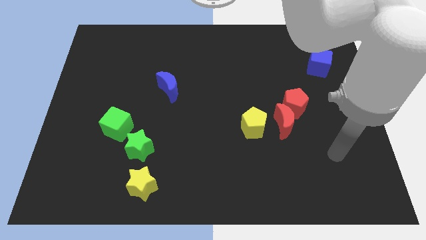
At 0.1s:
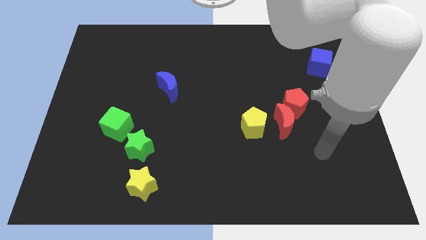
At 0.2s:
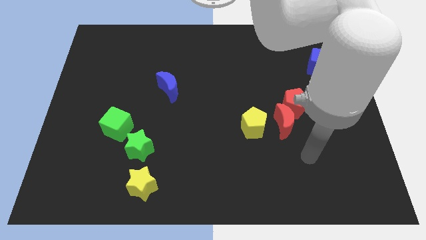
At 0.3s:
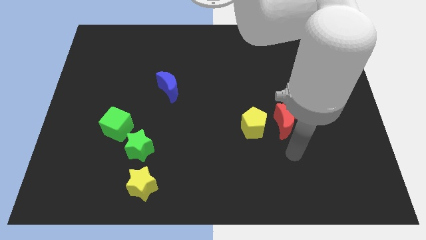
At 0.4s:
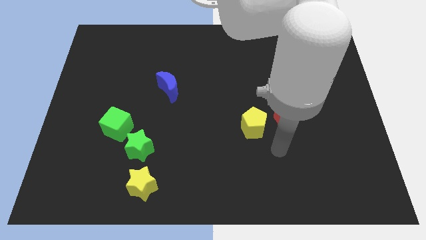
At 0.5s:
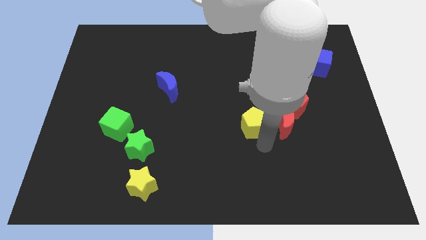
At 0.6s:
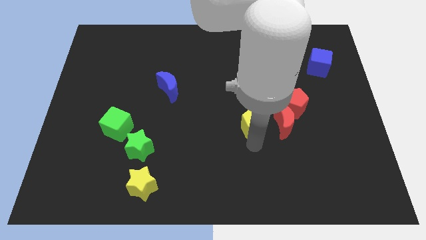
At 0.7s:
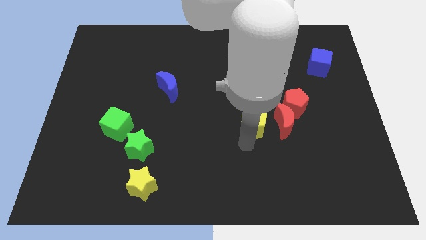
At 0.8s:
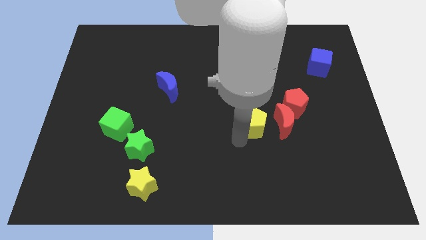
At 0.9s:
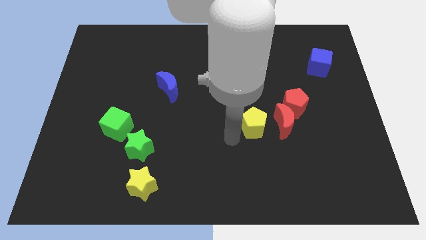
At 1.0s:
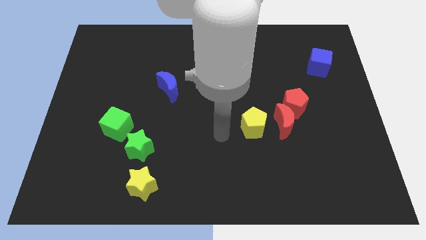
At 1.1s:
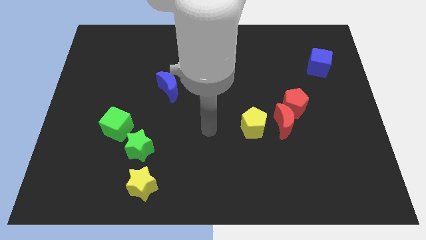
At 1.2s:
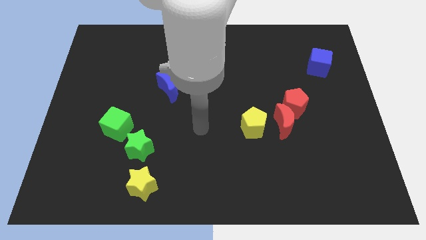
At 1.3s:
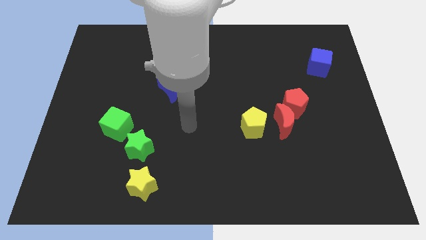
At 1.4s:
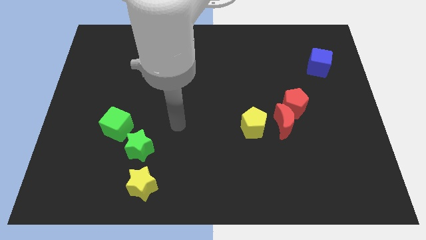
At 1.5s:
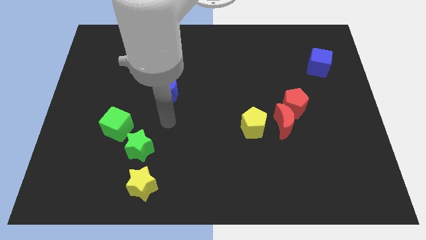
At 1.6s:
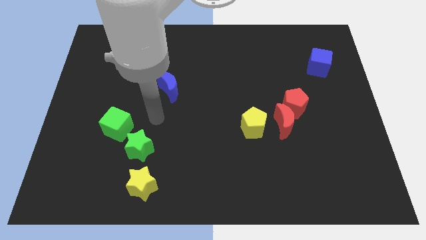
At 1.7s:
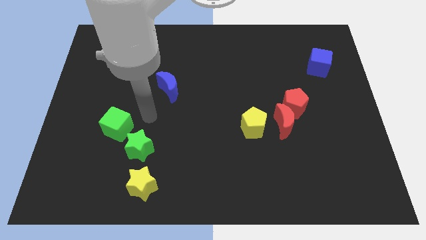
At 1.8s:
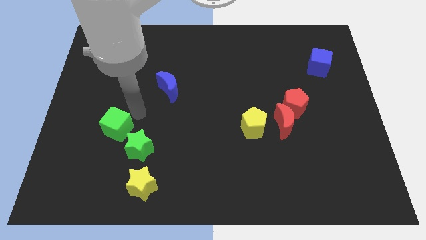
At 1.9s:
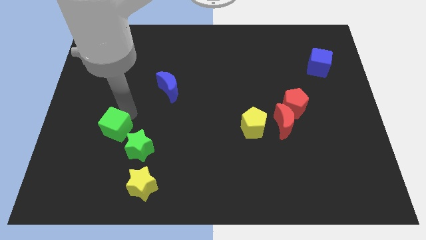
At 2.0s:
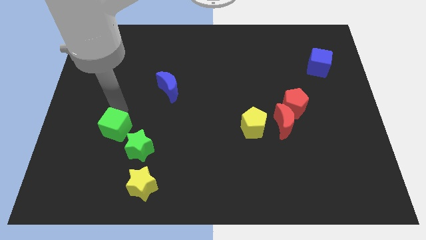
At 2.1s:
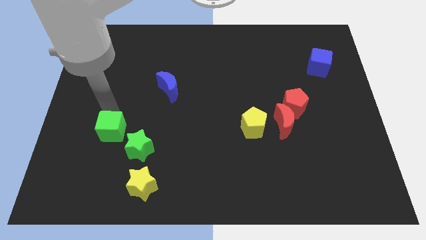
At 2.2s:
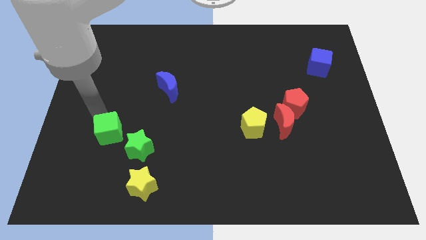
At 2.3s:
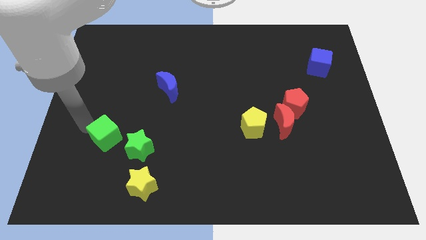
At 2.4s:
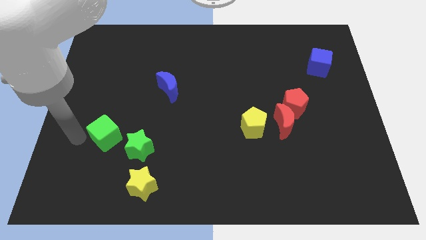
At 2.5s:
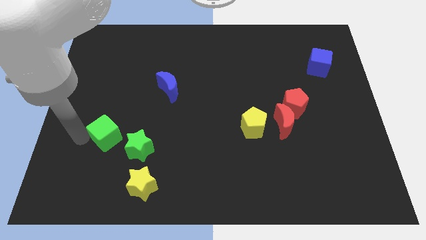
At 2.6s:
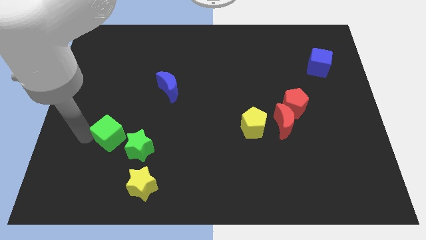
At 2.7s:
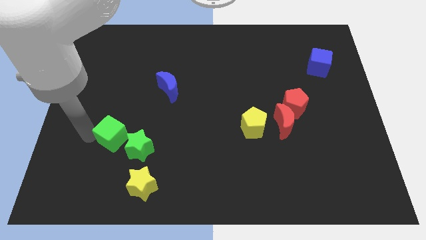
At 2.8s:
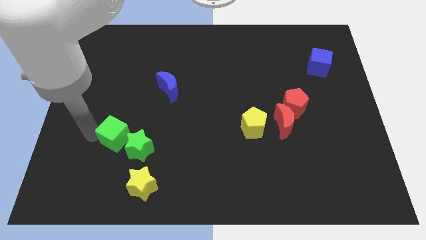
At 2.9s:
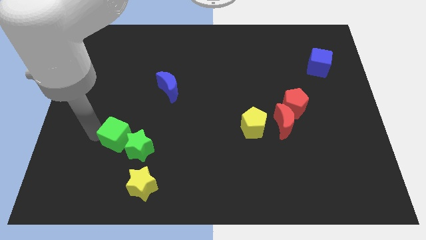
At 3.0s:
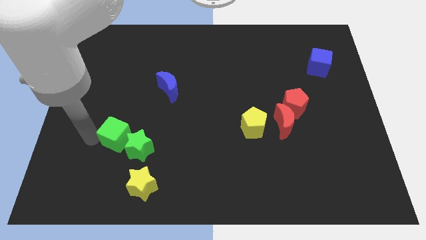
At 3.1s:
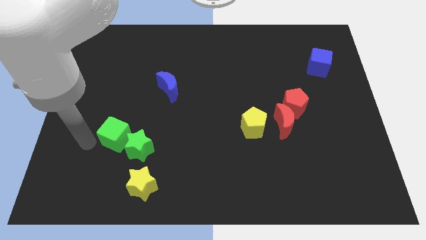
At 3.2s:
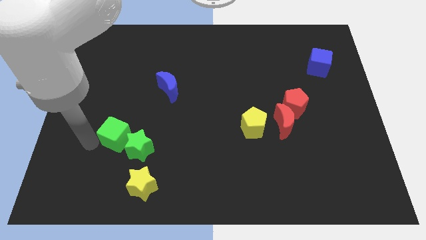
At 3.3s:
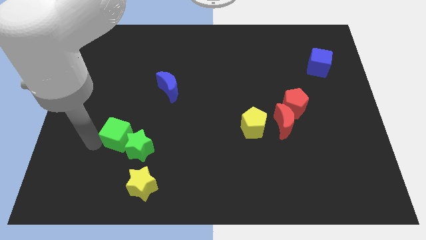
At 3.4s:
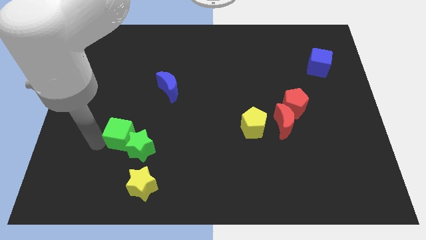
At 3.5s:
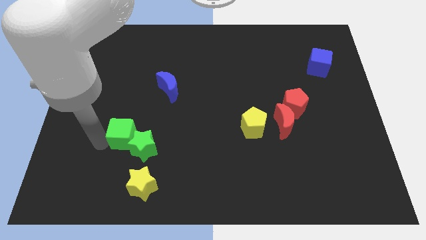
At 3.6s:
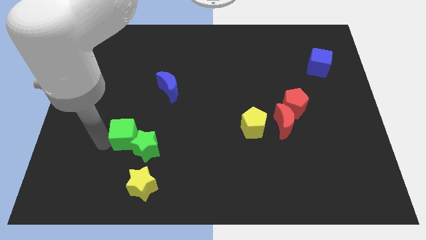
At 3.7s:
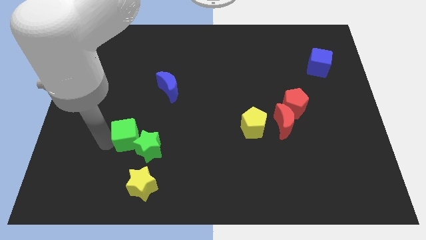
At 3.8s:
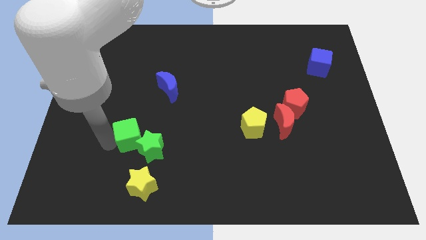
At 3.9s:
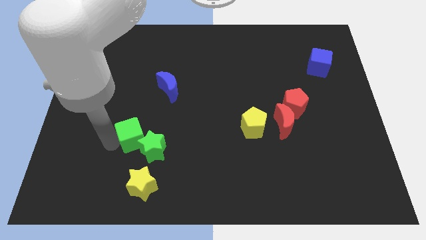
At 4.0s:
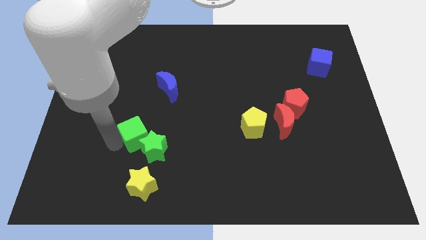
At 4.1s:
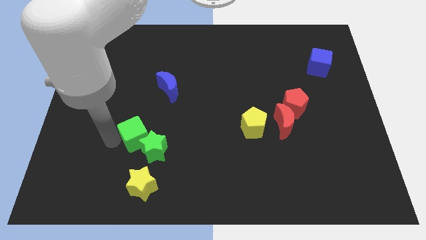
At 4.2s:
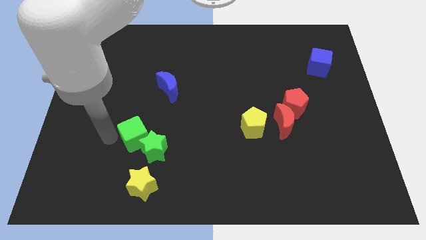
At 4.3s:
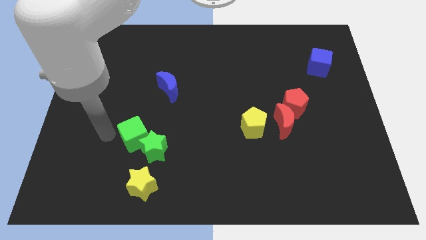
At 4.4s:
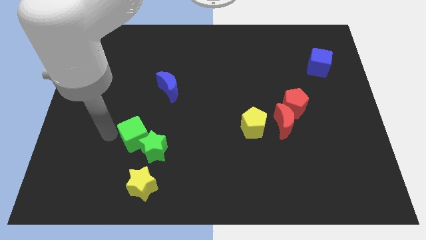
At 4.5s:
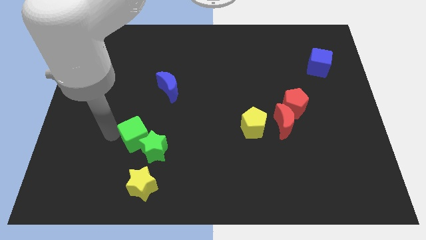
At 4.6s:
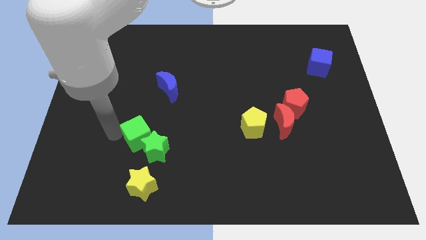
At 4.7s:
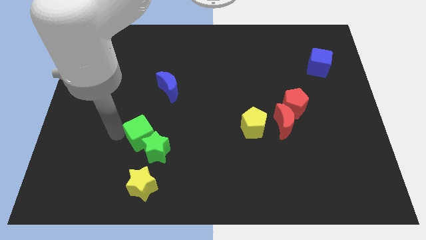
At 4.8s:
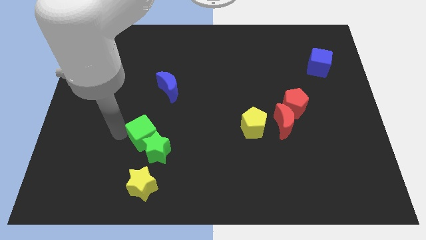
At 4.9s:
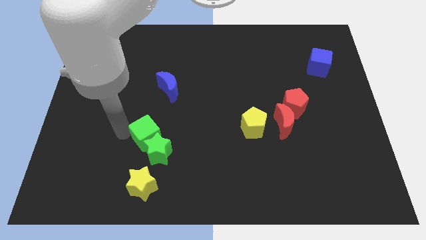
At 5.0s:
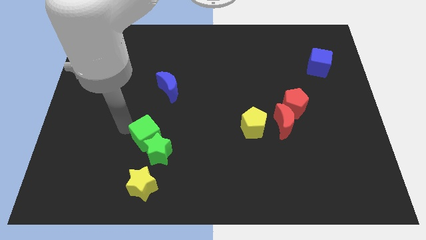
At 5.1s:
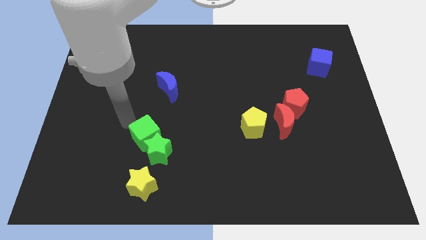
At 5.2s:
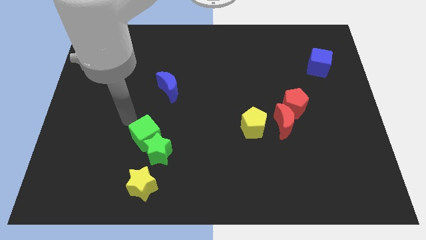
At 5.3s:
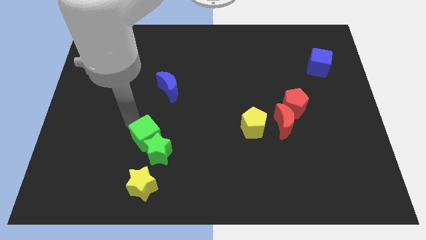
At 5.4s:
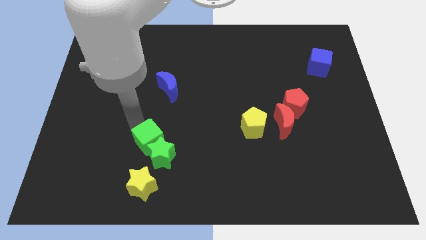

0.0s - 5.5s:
push the green cube slightly down and to the right

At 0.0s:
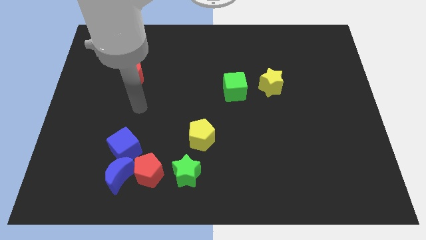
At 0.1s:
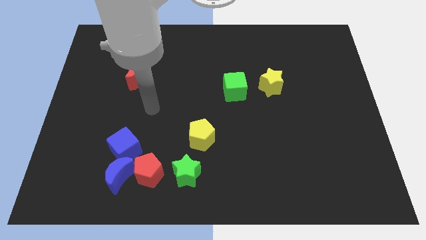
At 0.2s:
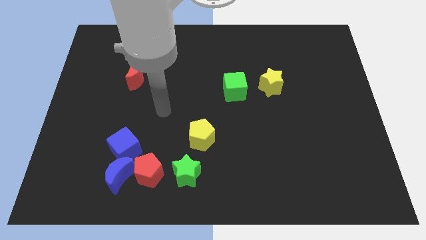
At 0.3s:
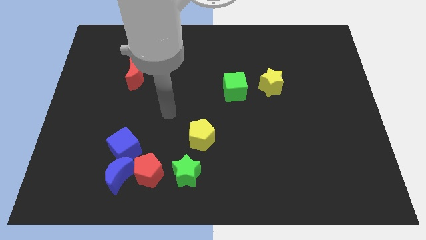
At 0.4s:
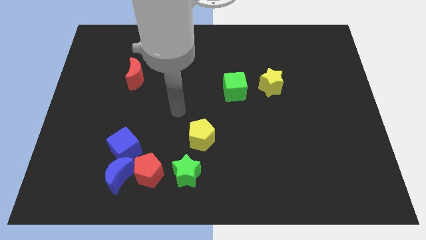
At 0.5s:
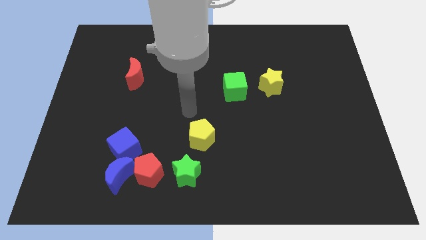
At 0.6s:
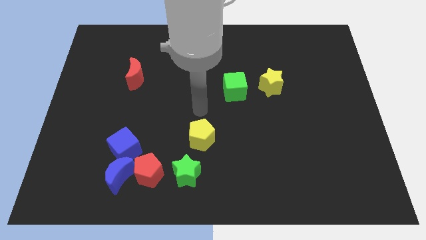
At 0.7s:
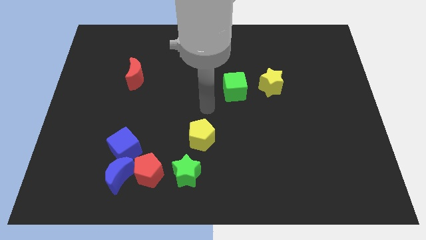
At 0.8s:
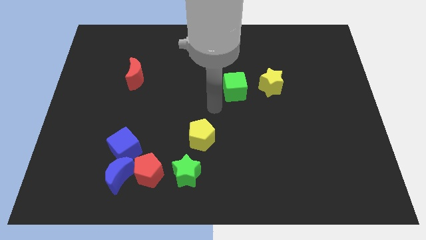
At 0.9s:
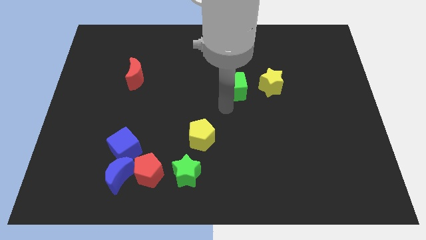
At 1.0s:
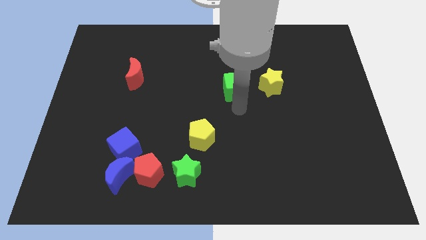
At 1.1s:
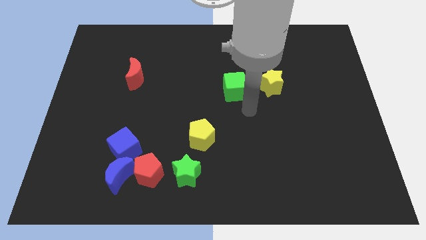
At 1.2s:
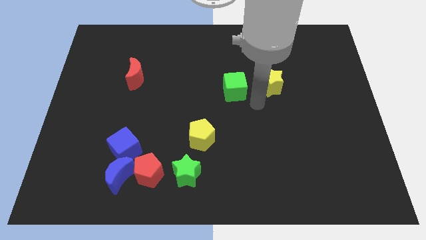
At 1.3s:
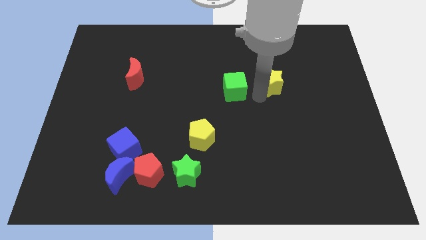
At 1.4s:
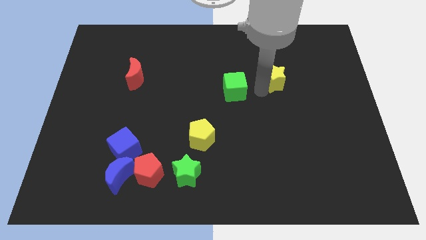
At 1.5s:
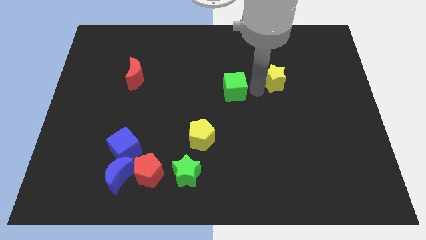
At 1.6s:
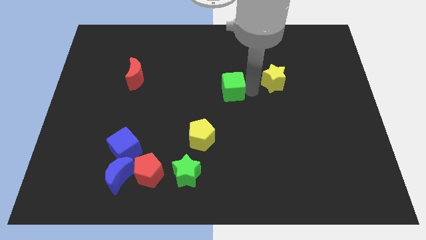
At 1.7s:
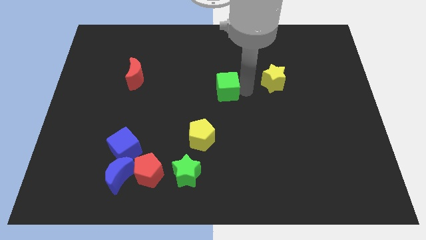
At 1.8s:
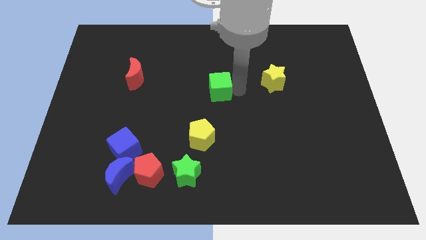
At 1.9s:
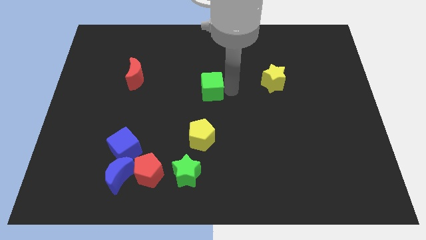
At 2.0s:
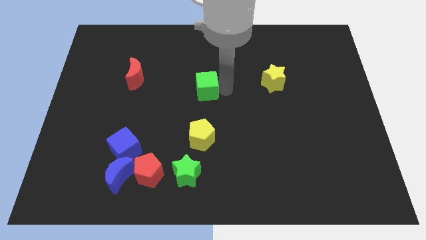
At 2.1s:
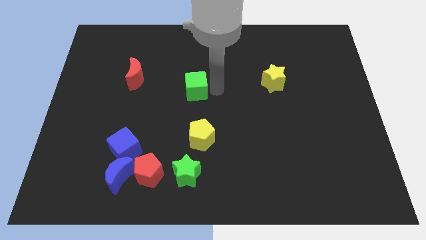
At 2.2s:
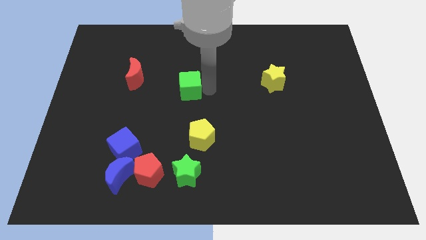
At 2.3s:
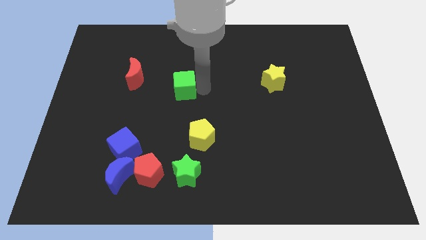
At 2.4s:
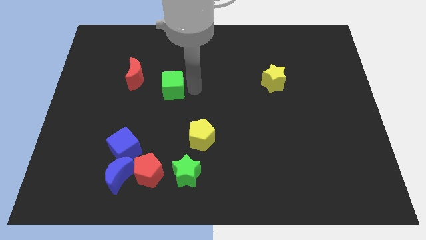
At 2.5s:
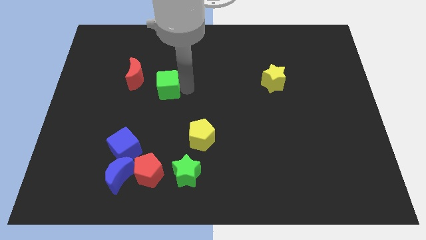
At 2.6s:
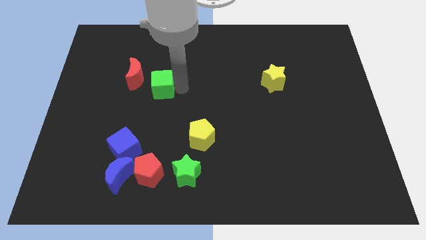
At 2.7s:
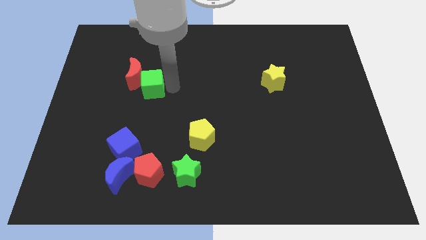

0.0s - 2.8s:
push the green cube left
